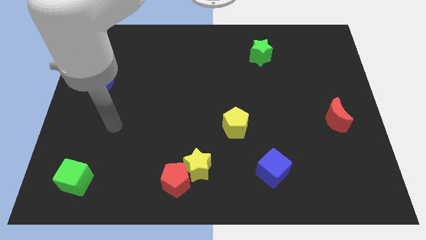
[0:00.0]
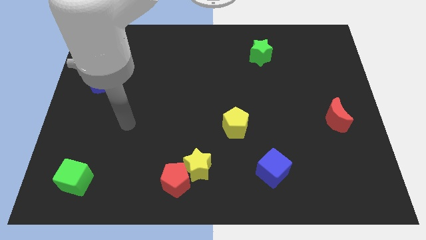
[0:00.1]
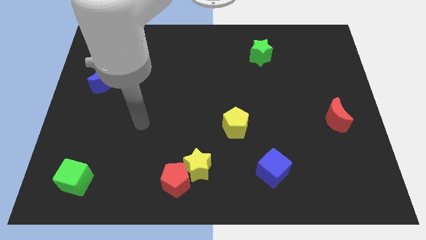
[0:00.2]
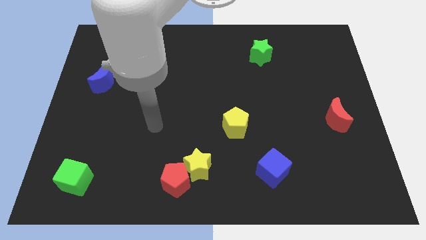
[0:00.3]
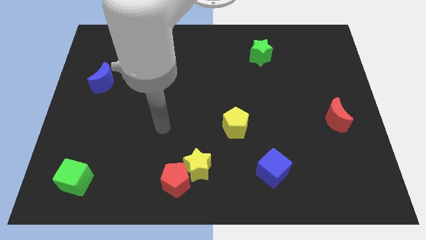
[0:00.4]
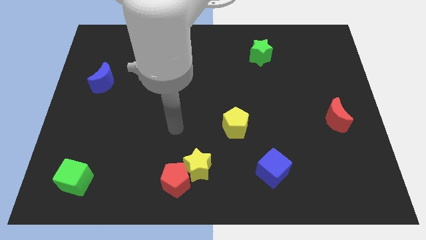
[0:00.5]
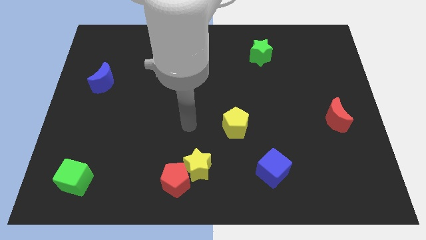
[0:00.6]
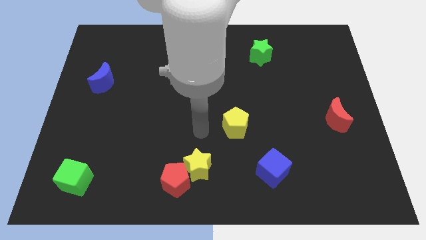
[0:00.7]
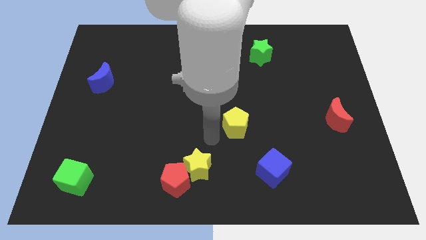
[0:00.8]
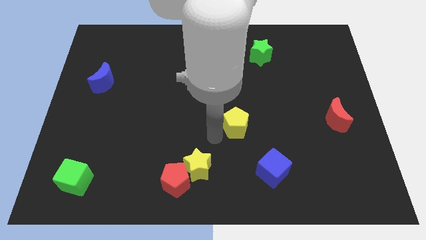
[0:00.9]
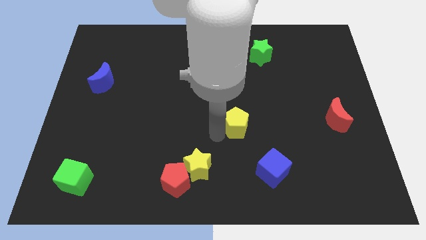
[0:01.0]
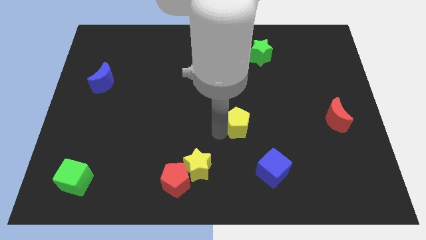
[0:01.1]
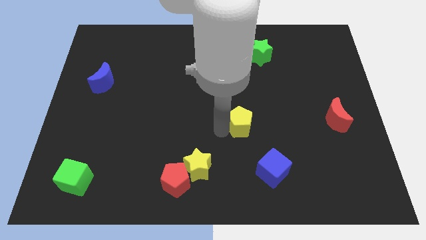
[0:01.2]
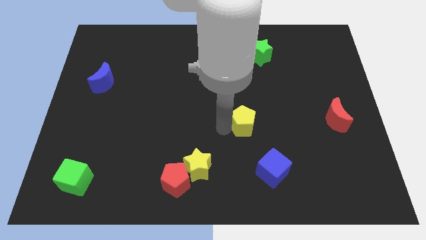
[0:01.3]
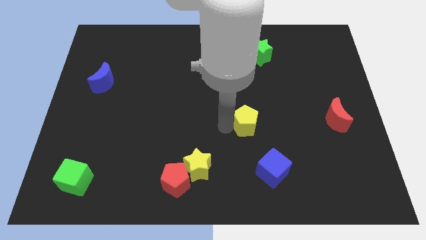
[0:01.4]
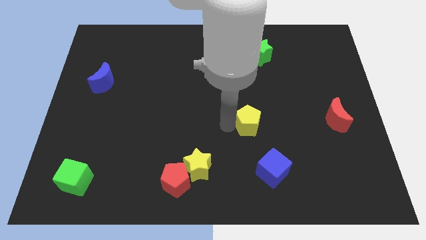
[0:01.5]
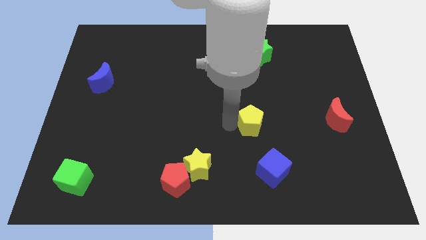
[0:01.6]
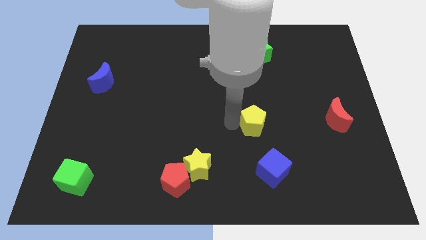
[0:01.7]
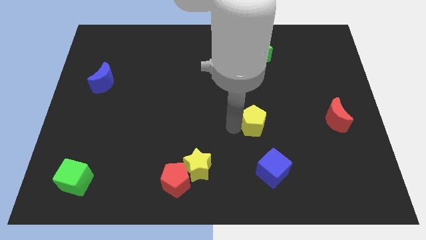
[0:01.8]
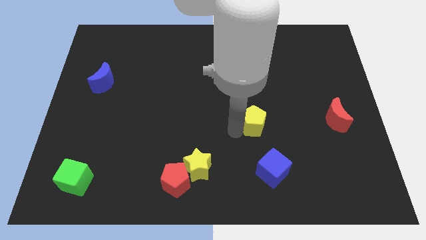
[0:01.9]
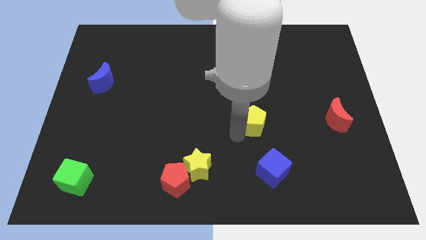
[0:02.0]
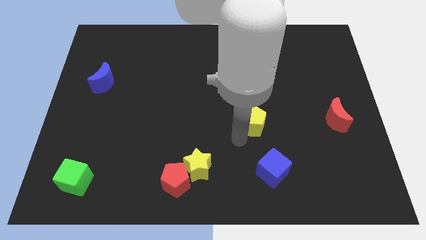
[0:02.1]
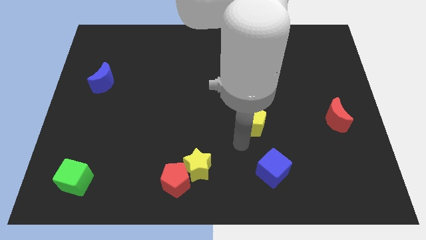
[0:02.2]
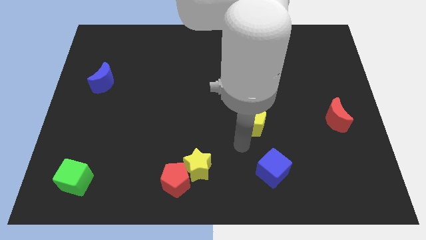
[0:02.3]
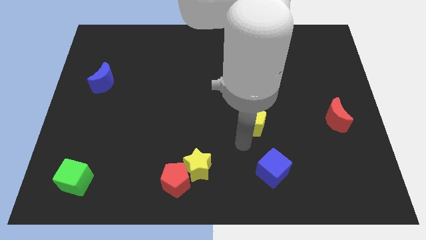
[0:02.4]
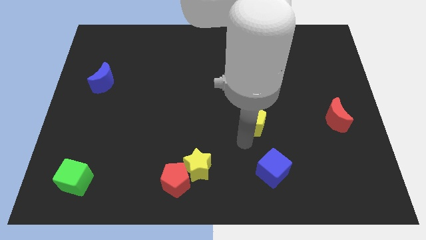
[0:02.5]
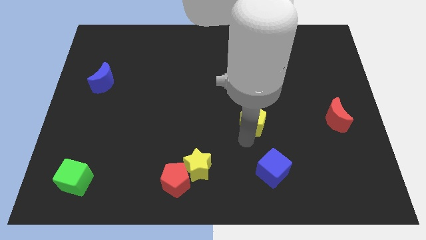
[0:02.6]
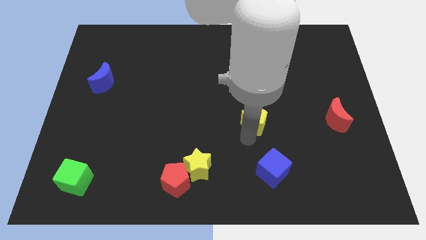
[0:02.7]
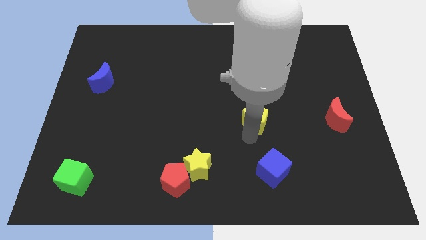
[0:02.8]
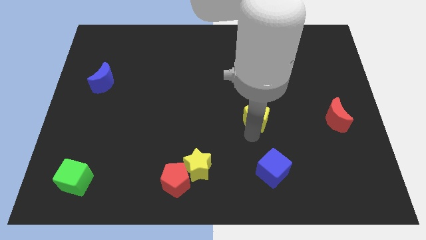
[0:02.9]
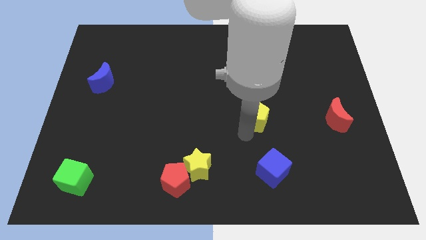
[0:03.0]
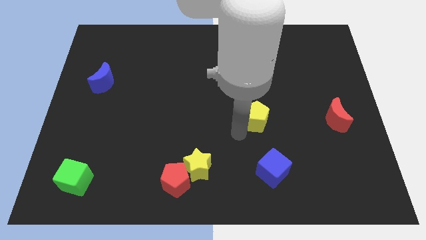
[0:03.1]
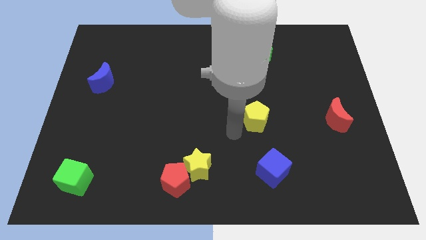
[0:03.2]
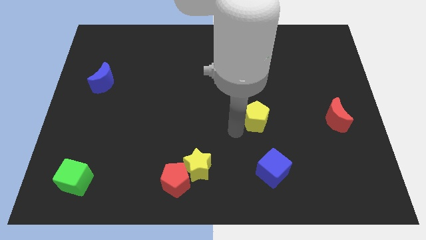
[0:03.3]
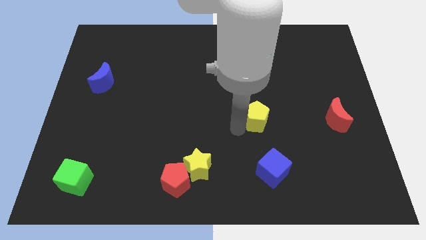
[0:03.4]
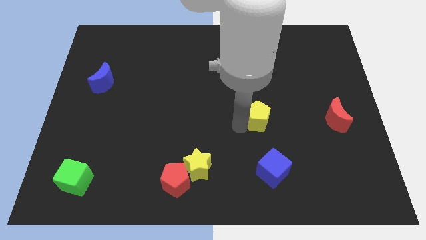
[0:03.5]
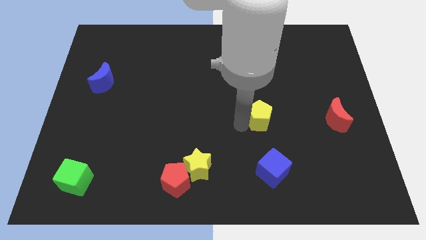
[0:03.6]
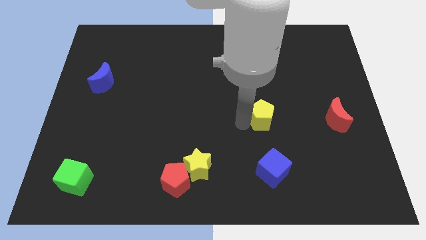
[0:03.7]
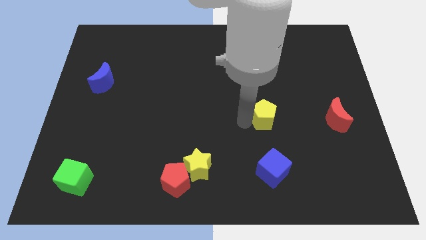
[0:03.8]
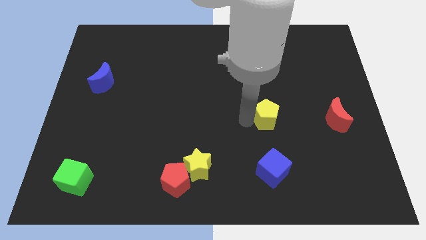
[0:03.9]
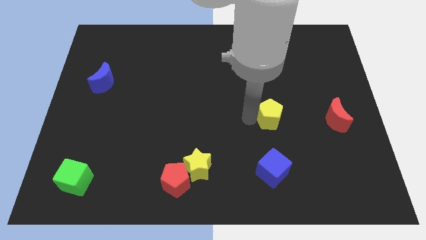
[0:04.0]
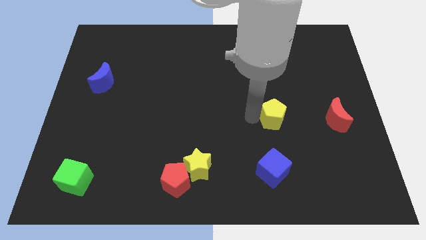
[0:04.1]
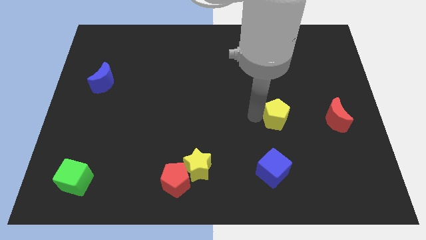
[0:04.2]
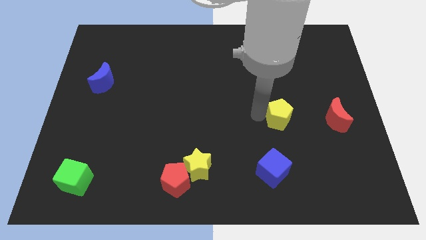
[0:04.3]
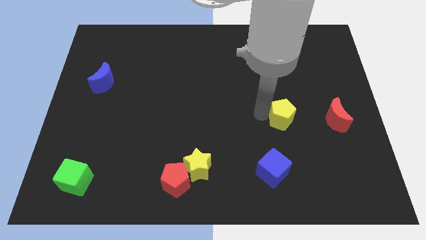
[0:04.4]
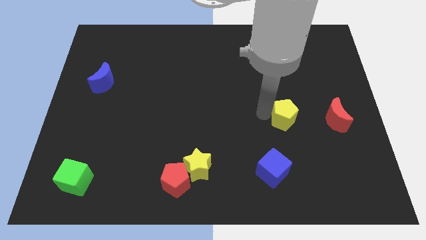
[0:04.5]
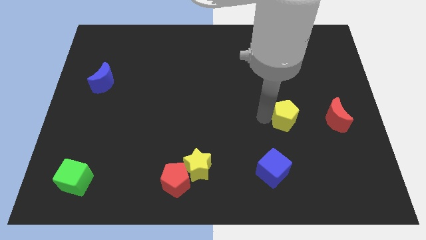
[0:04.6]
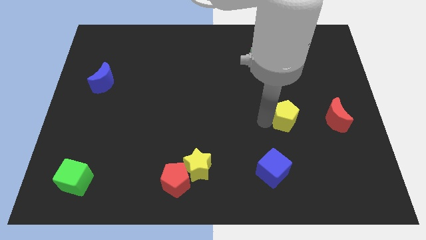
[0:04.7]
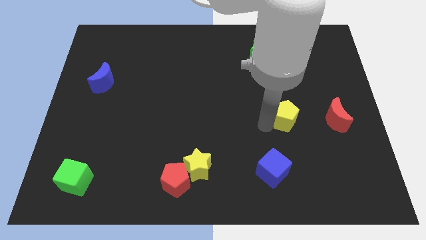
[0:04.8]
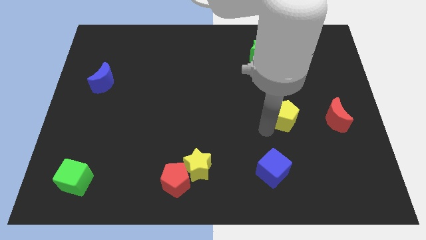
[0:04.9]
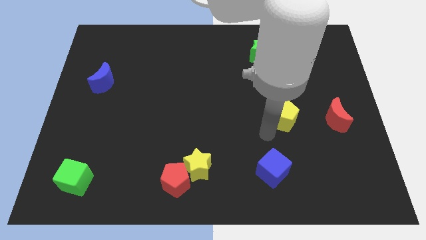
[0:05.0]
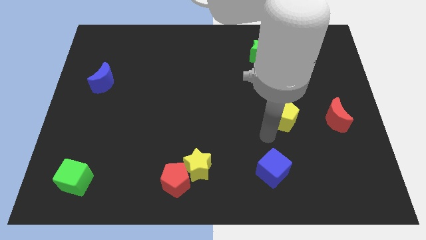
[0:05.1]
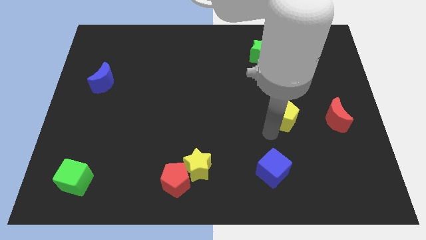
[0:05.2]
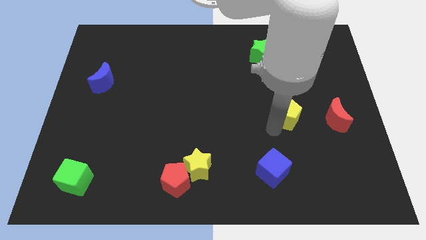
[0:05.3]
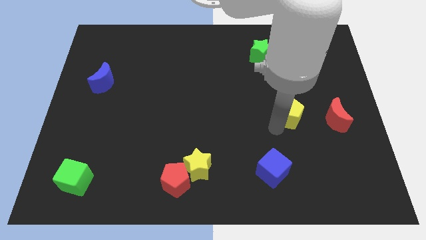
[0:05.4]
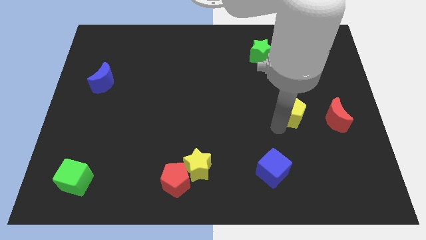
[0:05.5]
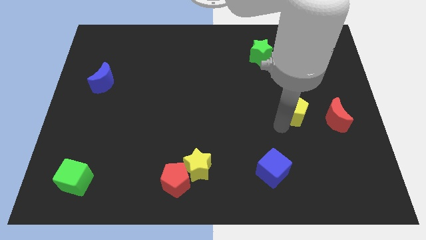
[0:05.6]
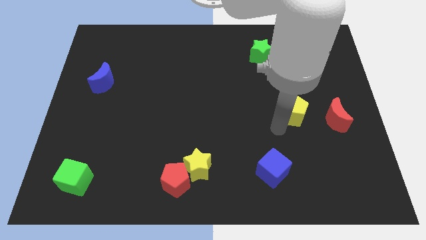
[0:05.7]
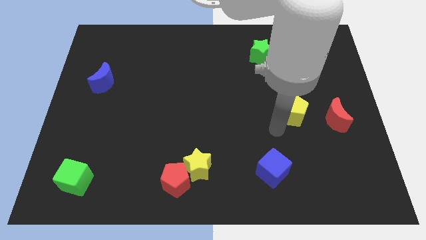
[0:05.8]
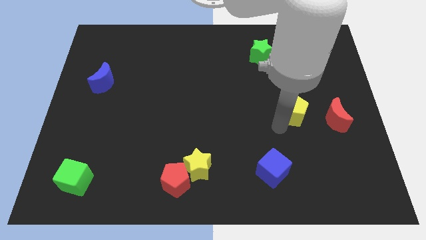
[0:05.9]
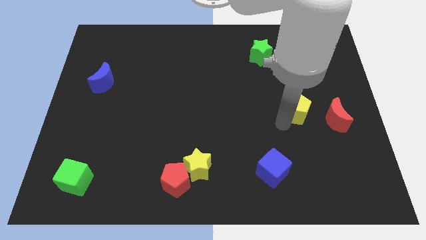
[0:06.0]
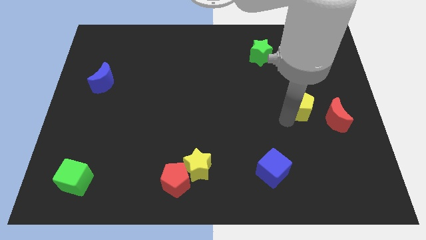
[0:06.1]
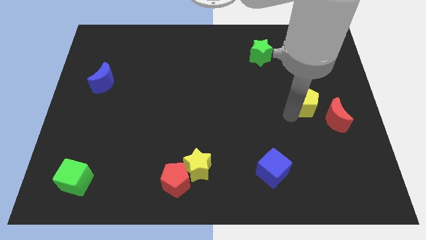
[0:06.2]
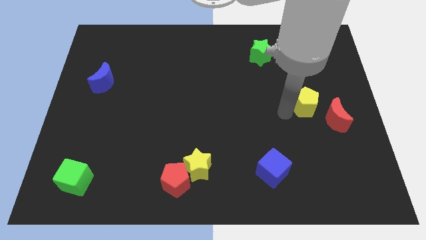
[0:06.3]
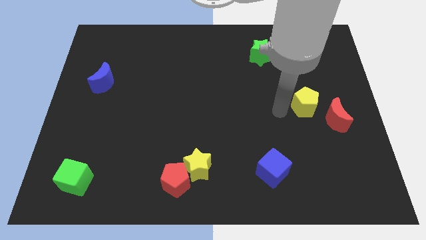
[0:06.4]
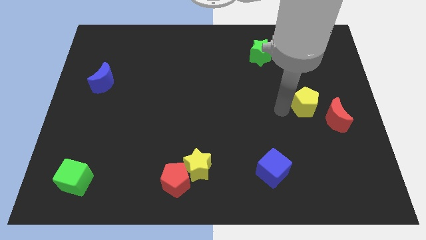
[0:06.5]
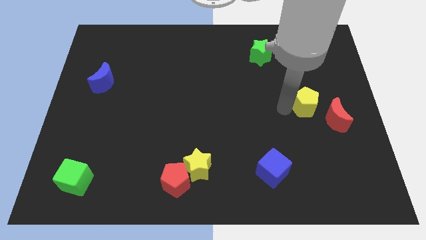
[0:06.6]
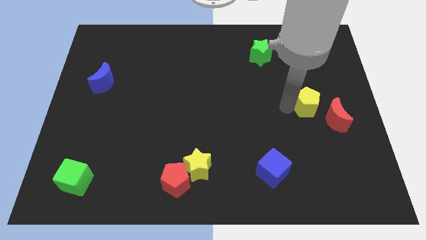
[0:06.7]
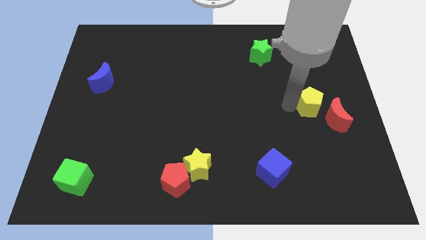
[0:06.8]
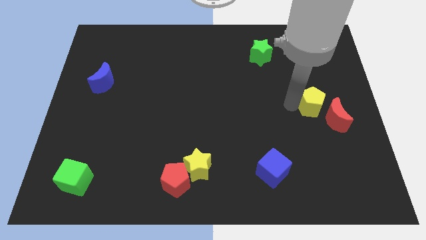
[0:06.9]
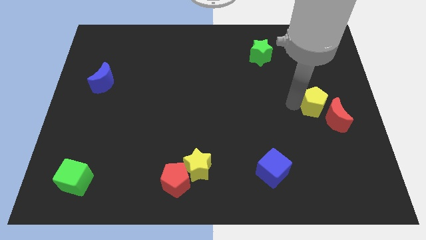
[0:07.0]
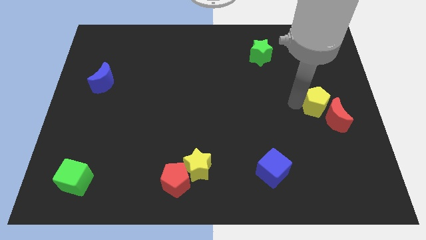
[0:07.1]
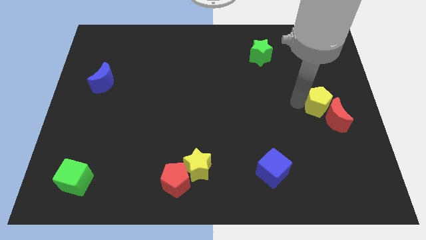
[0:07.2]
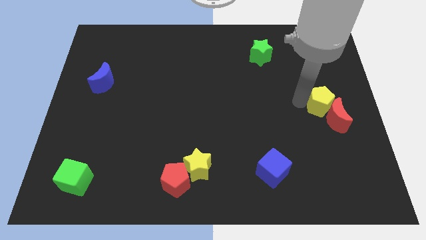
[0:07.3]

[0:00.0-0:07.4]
push the yellow pentagon to the center right
